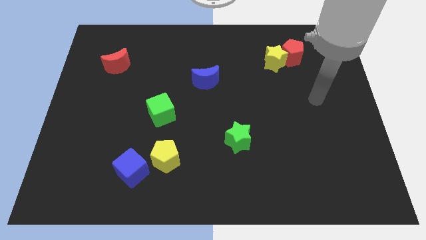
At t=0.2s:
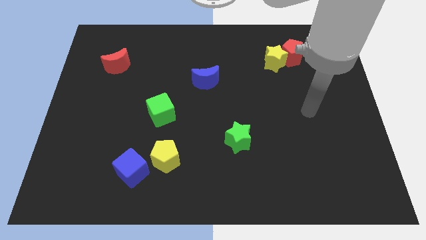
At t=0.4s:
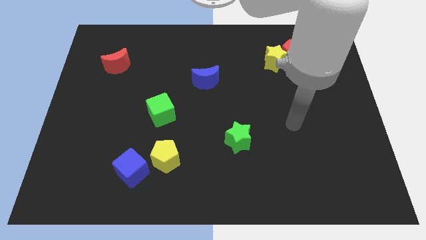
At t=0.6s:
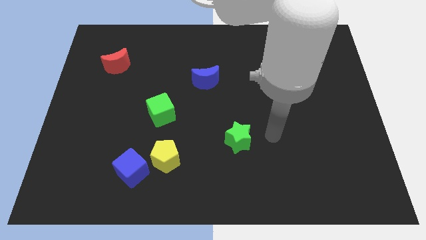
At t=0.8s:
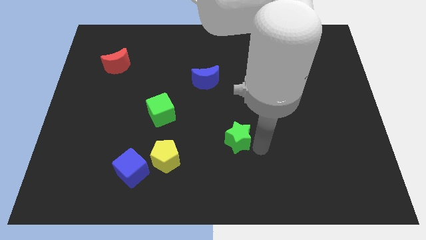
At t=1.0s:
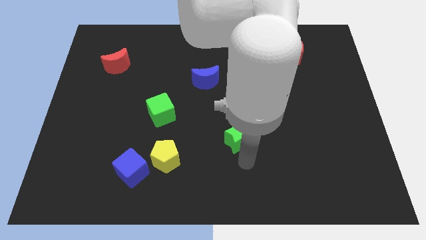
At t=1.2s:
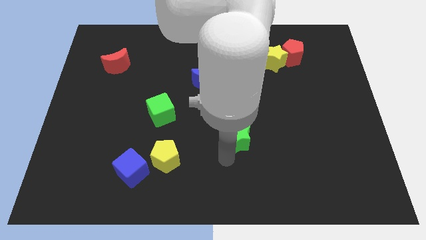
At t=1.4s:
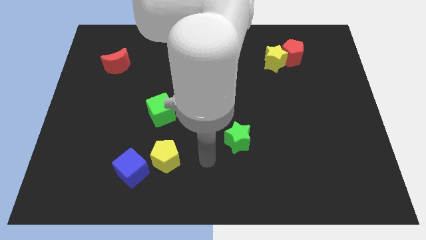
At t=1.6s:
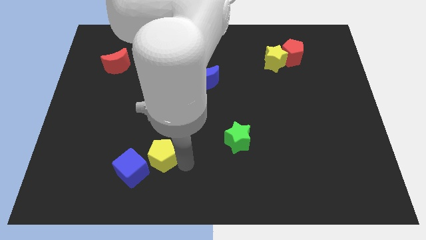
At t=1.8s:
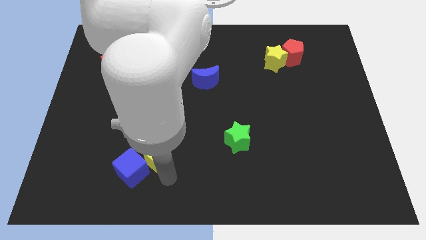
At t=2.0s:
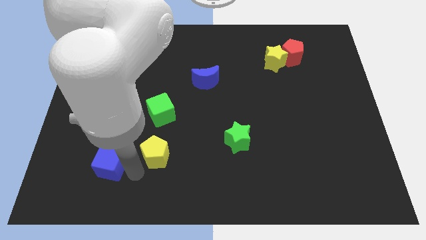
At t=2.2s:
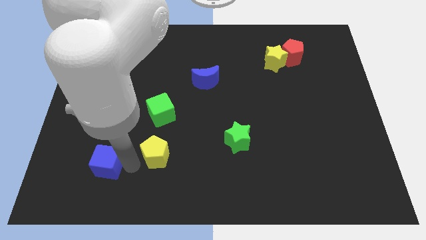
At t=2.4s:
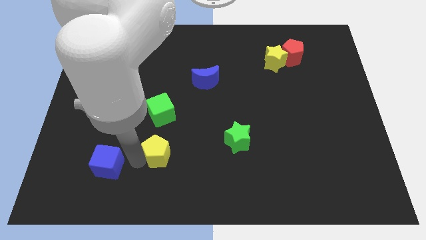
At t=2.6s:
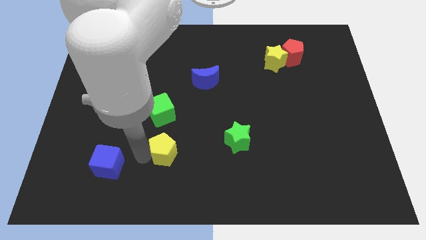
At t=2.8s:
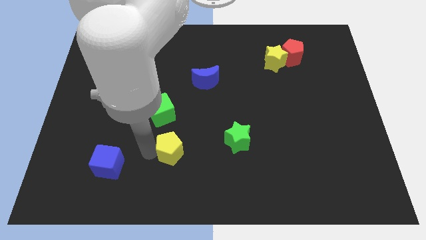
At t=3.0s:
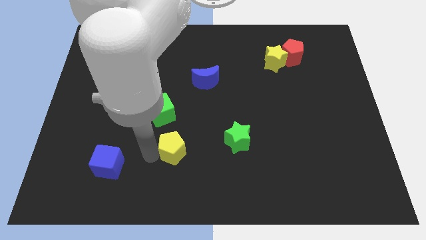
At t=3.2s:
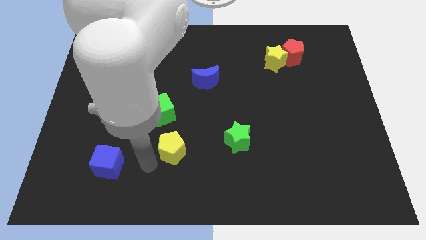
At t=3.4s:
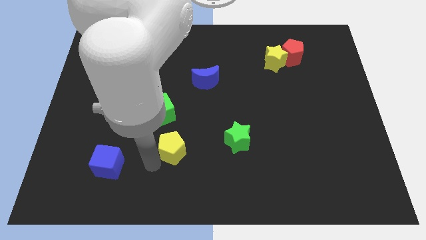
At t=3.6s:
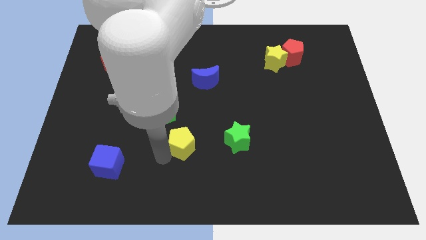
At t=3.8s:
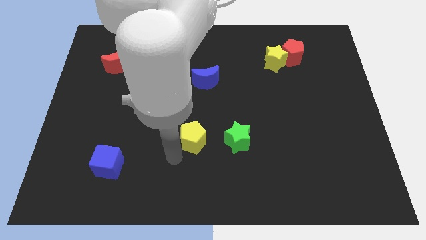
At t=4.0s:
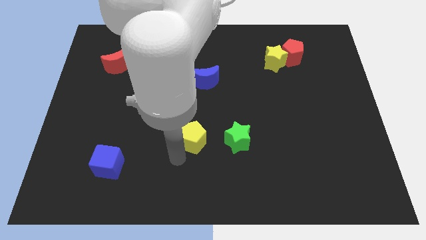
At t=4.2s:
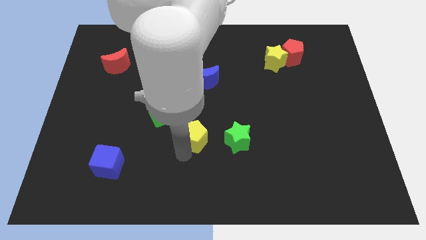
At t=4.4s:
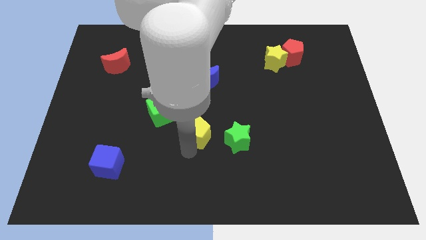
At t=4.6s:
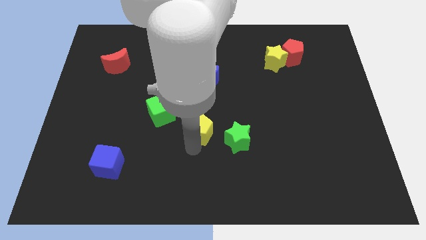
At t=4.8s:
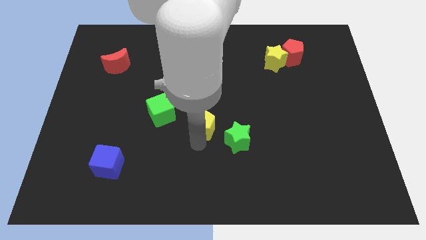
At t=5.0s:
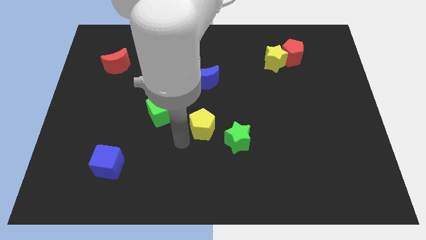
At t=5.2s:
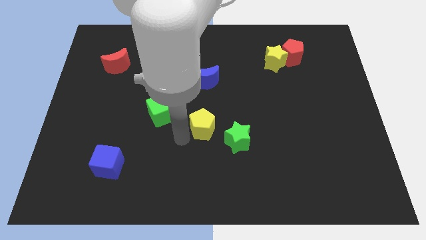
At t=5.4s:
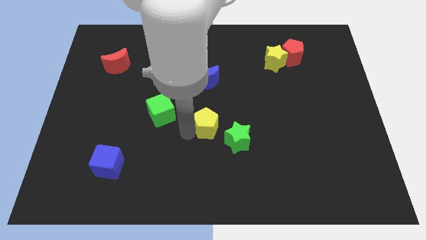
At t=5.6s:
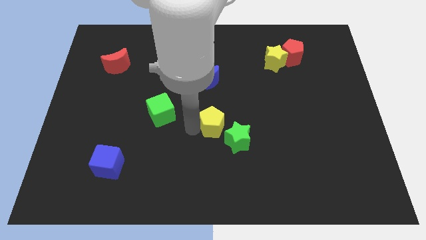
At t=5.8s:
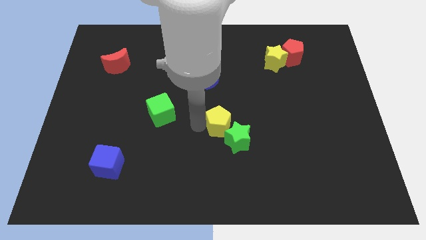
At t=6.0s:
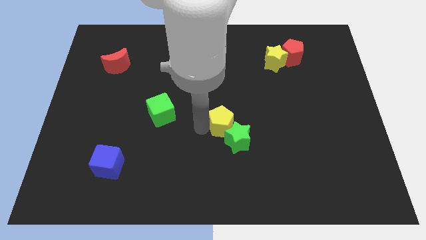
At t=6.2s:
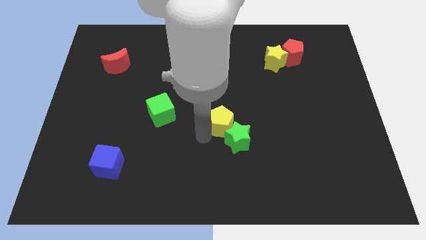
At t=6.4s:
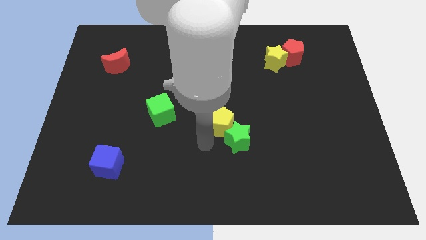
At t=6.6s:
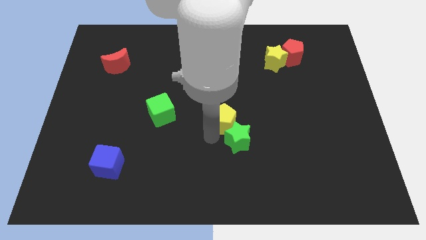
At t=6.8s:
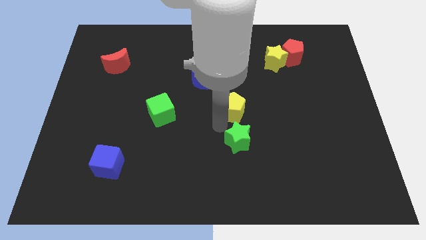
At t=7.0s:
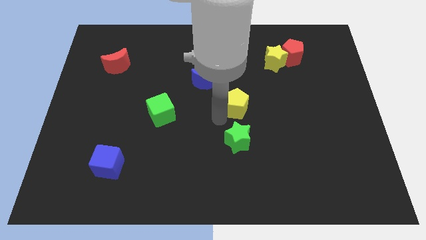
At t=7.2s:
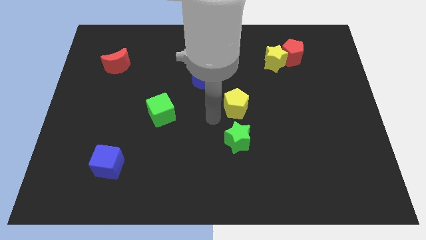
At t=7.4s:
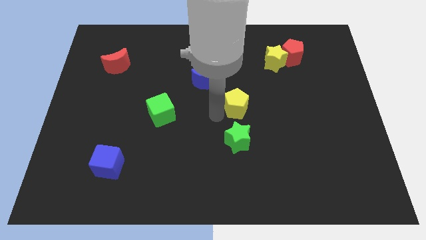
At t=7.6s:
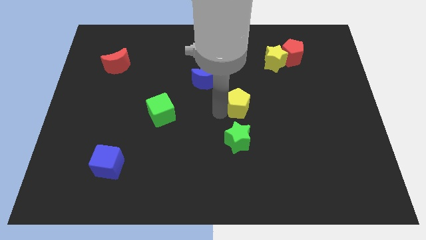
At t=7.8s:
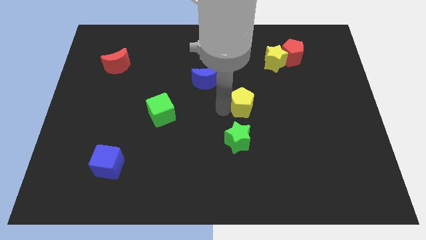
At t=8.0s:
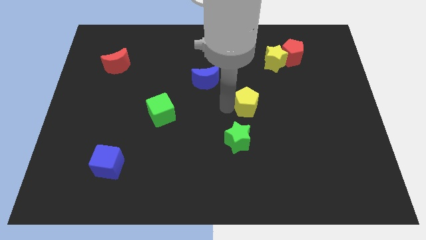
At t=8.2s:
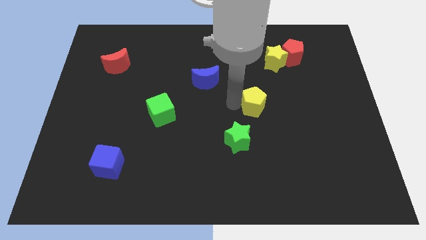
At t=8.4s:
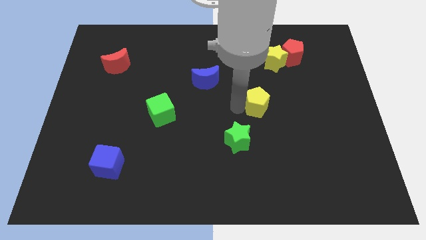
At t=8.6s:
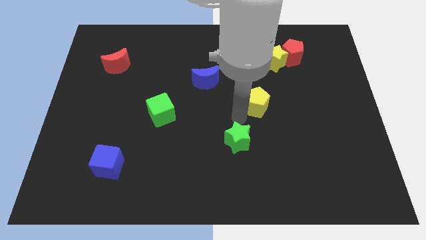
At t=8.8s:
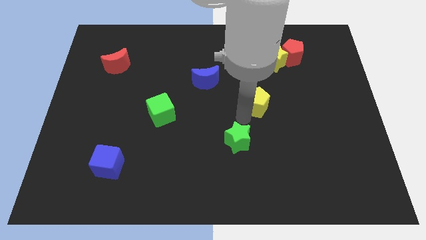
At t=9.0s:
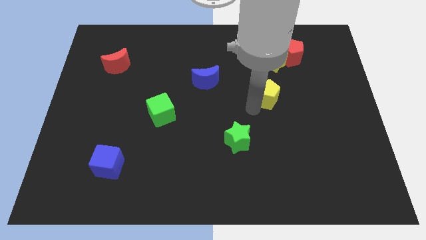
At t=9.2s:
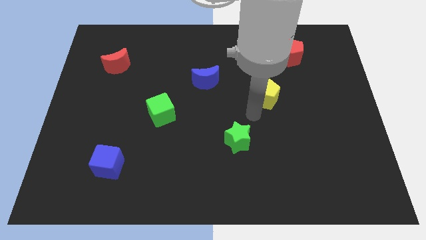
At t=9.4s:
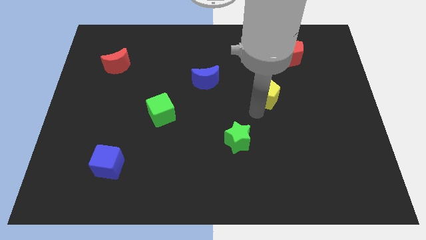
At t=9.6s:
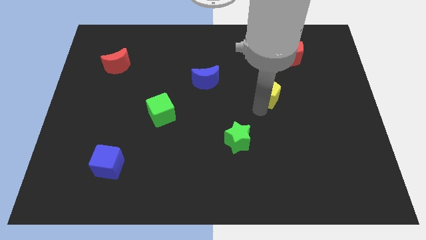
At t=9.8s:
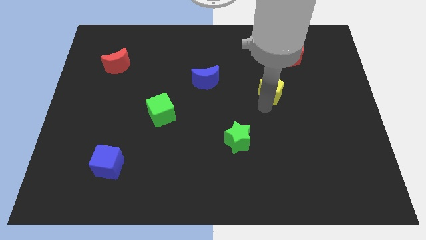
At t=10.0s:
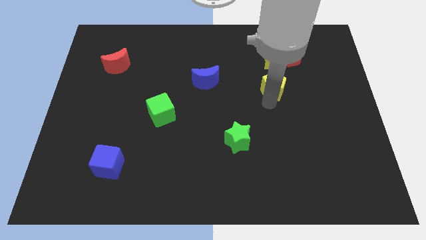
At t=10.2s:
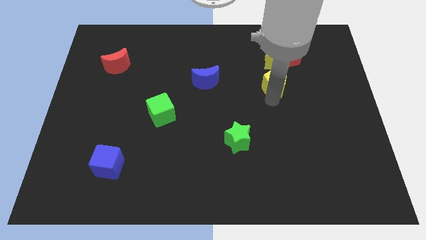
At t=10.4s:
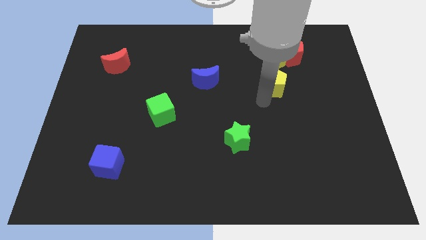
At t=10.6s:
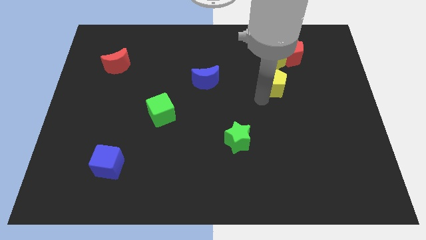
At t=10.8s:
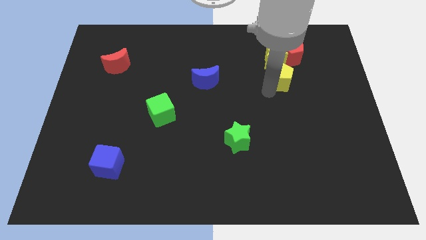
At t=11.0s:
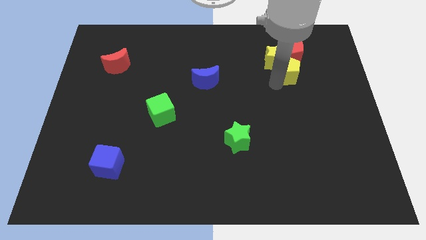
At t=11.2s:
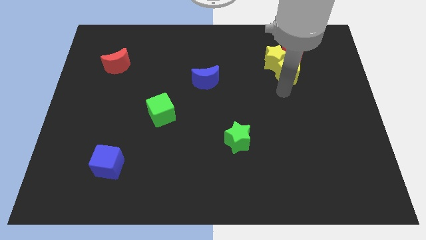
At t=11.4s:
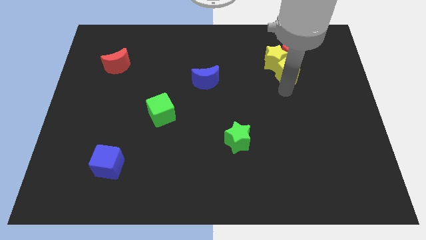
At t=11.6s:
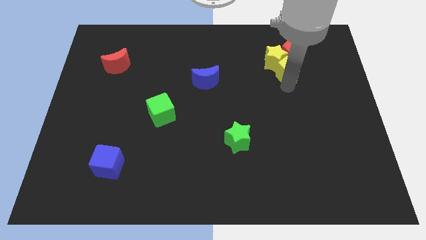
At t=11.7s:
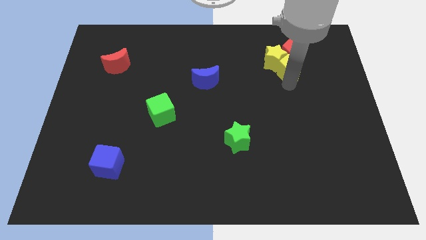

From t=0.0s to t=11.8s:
put the yellow pentagon close to the red pentagon
